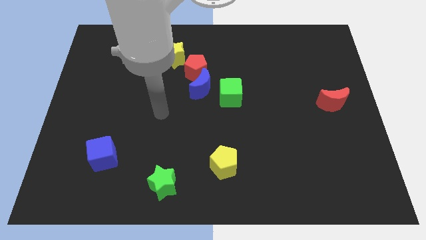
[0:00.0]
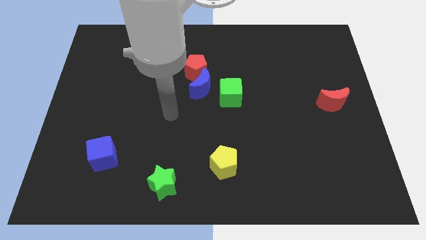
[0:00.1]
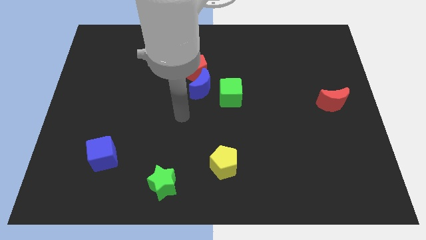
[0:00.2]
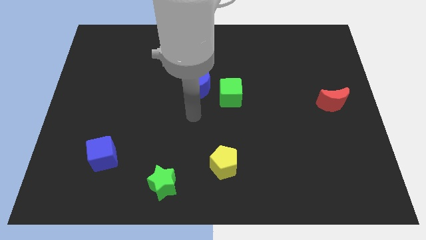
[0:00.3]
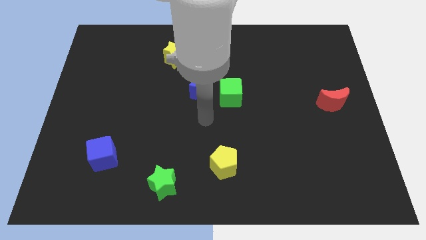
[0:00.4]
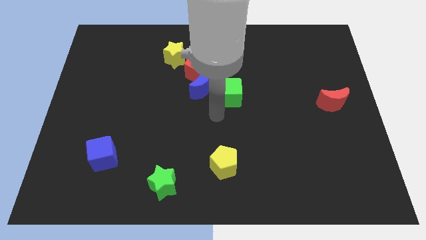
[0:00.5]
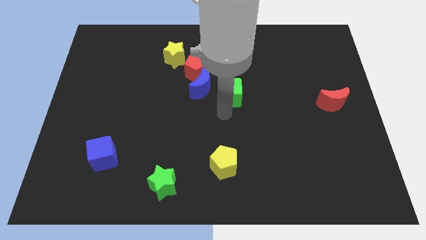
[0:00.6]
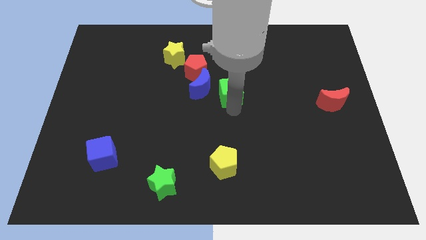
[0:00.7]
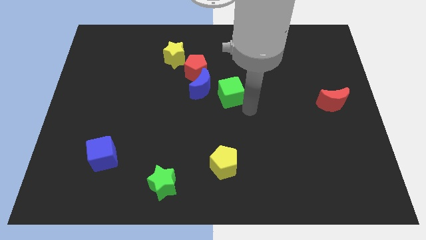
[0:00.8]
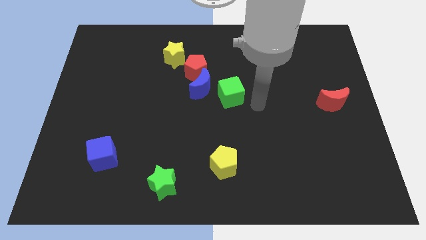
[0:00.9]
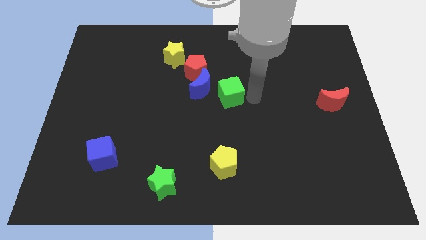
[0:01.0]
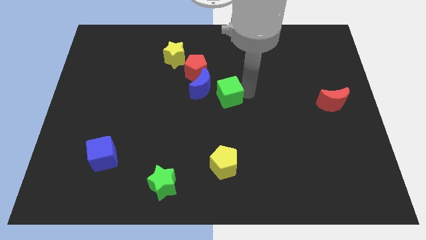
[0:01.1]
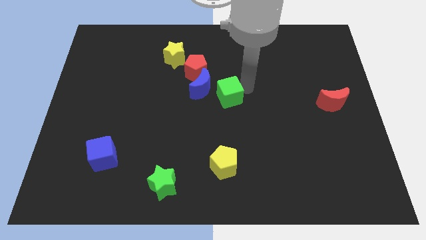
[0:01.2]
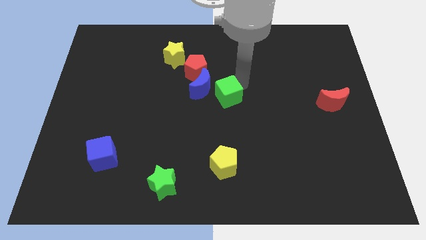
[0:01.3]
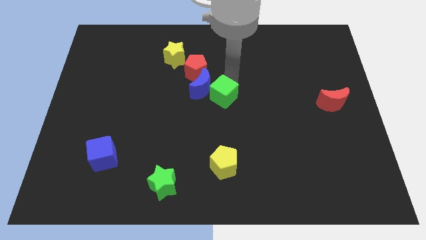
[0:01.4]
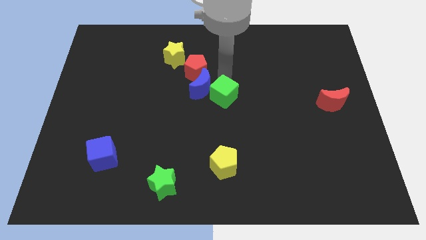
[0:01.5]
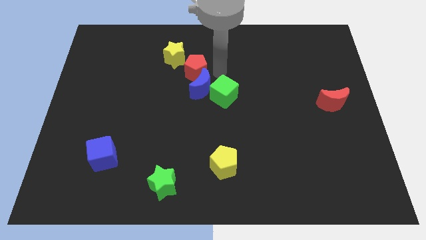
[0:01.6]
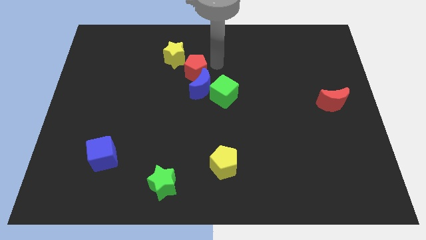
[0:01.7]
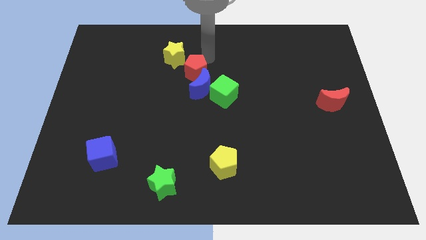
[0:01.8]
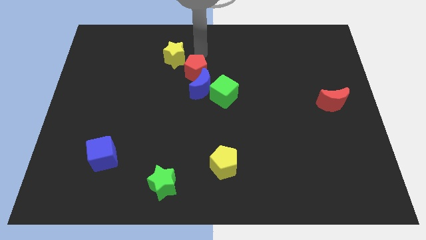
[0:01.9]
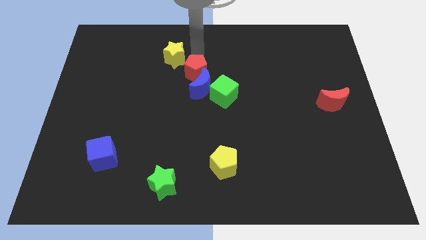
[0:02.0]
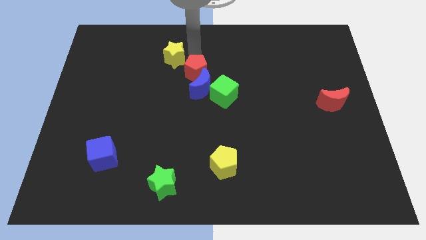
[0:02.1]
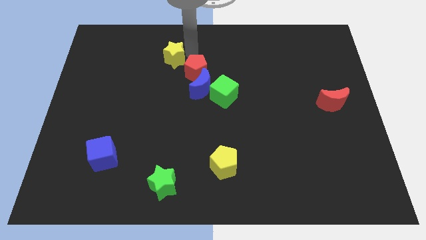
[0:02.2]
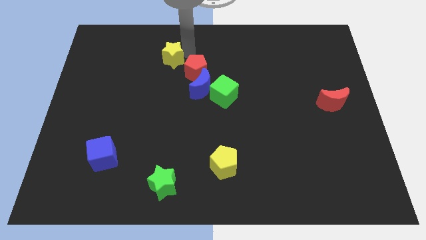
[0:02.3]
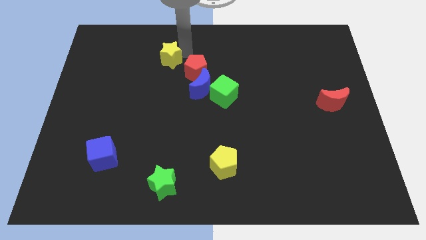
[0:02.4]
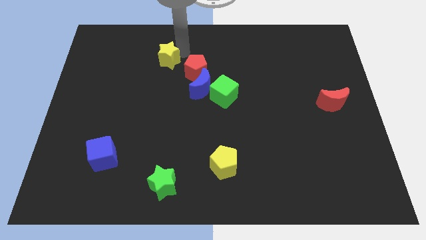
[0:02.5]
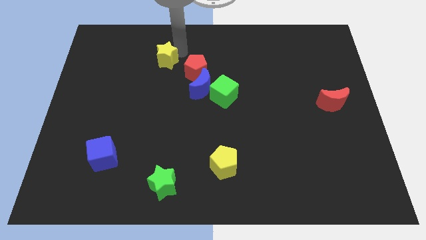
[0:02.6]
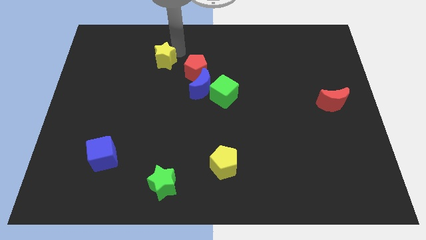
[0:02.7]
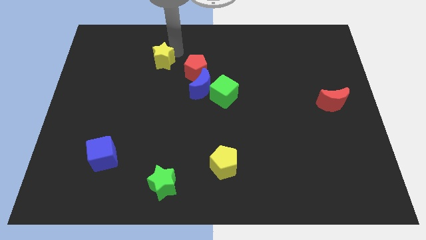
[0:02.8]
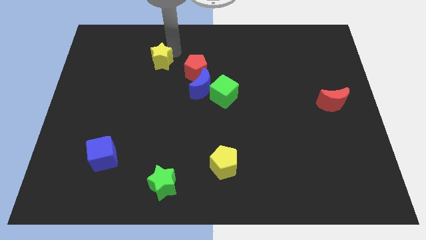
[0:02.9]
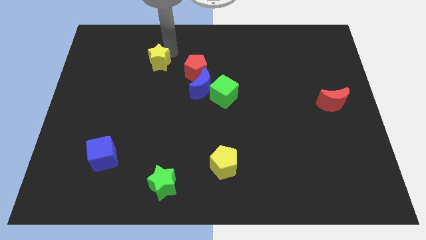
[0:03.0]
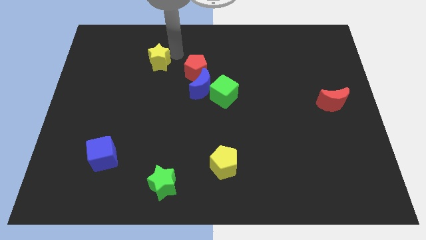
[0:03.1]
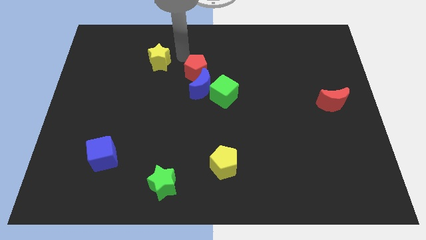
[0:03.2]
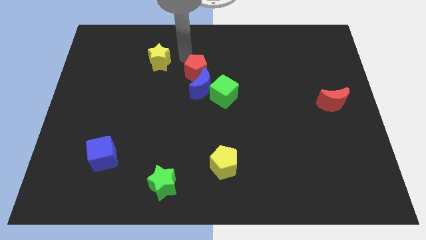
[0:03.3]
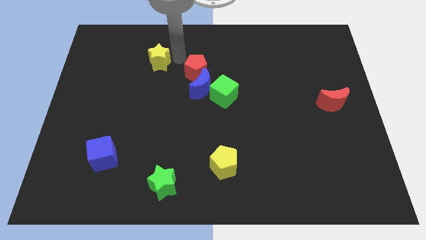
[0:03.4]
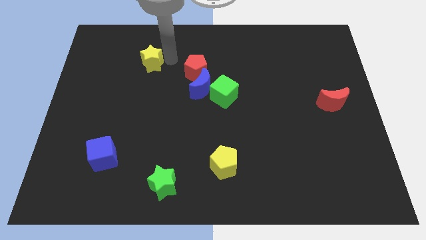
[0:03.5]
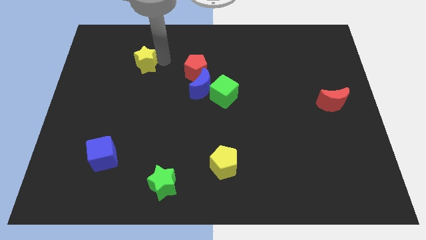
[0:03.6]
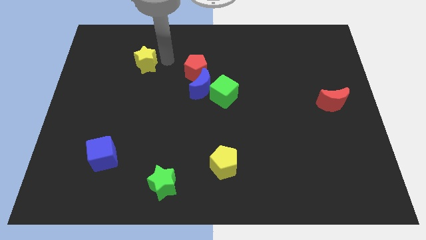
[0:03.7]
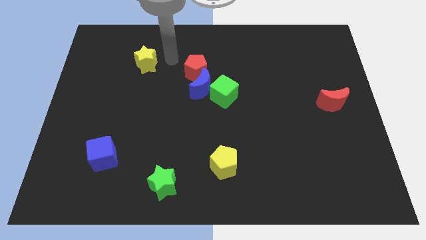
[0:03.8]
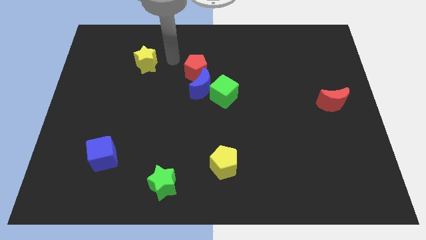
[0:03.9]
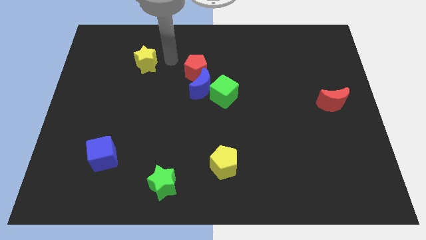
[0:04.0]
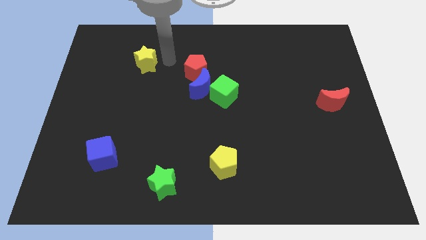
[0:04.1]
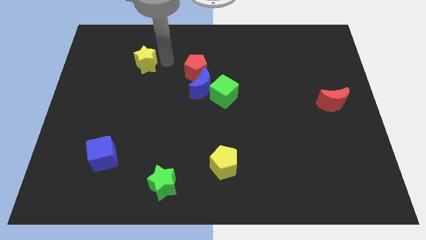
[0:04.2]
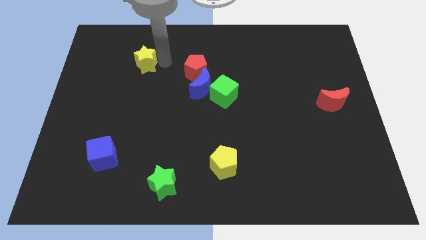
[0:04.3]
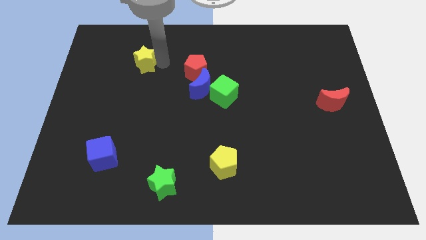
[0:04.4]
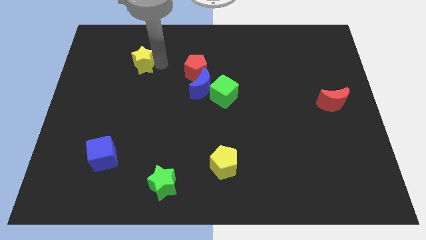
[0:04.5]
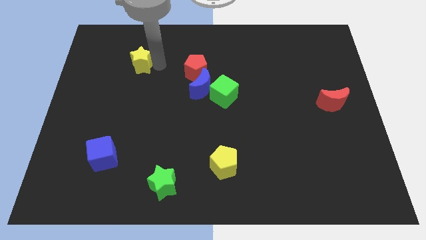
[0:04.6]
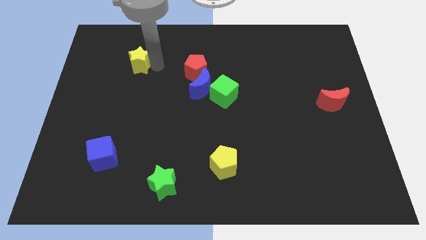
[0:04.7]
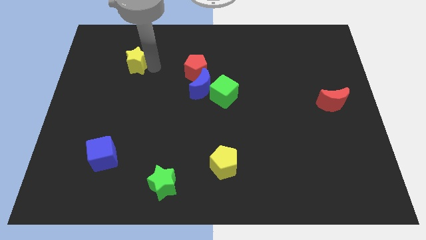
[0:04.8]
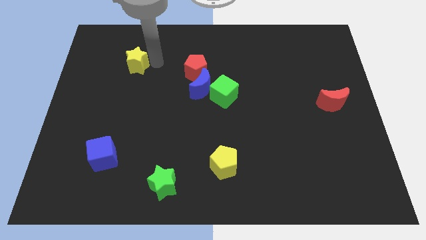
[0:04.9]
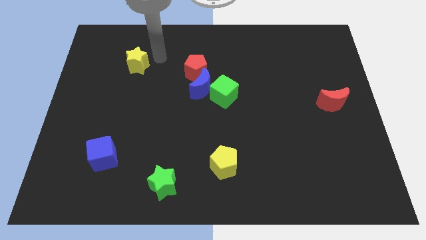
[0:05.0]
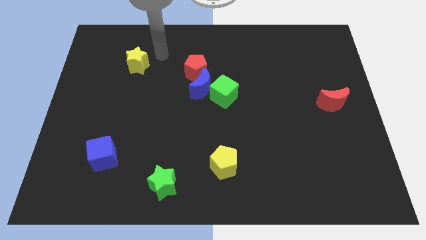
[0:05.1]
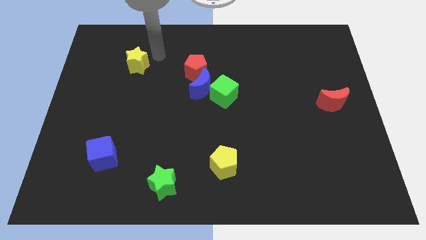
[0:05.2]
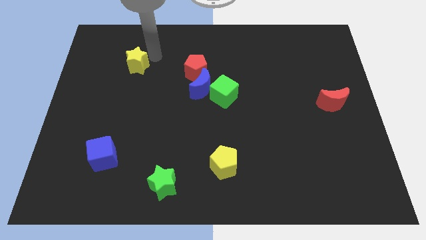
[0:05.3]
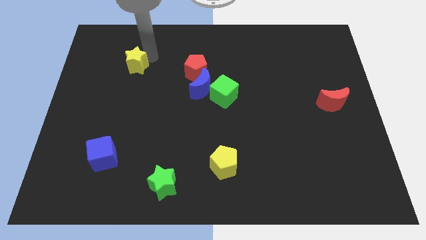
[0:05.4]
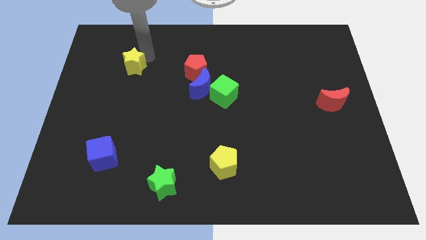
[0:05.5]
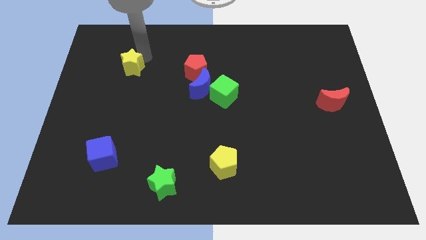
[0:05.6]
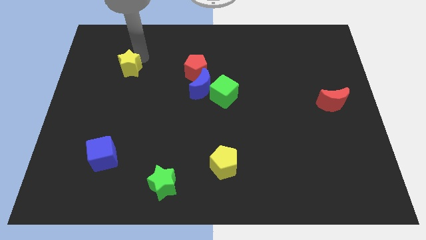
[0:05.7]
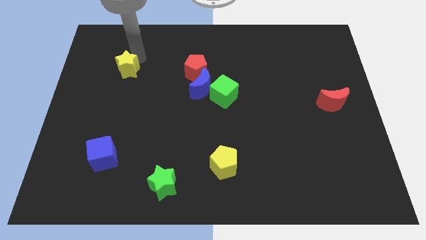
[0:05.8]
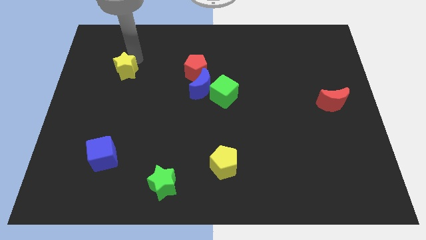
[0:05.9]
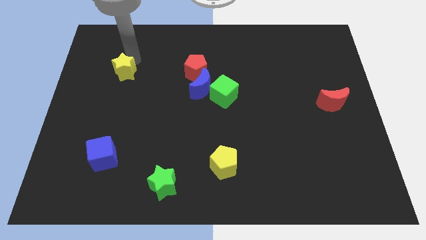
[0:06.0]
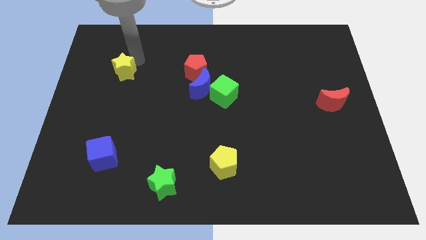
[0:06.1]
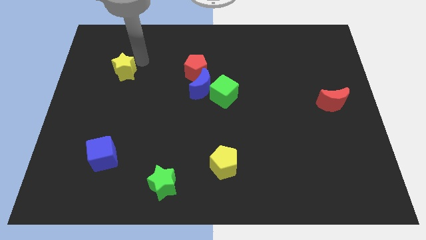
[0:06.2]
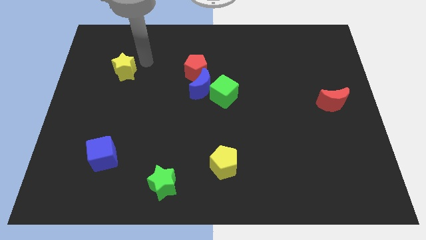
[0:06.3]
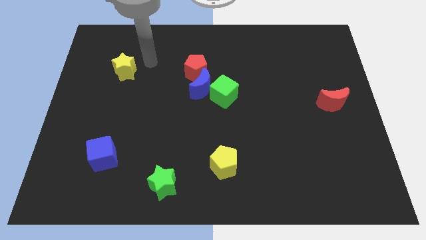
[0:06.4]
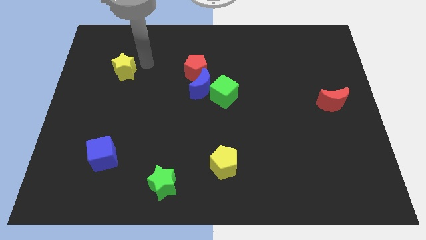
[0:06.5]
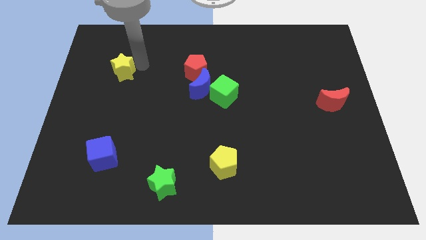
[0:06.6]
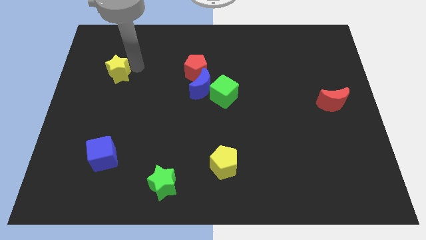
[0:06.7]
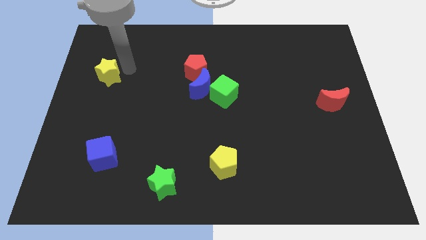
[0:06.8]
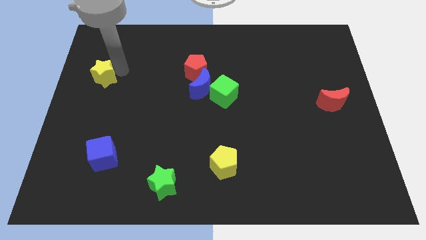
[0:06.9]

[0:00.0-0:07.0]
move the yellow star to the center left
